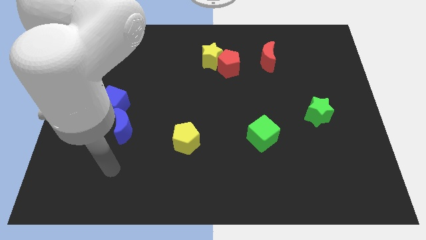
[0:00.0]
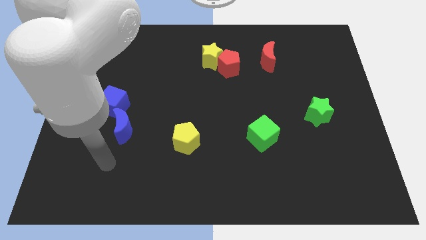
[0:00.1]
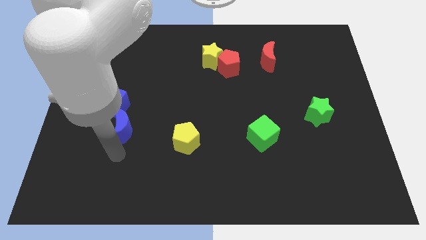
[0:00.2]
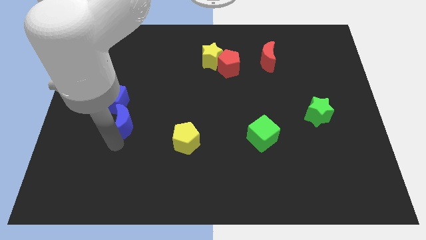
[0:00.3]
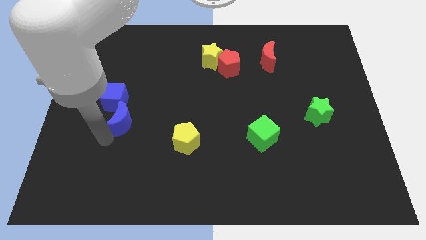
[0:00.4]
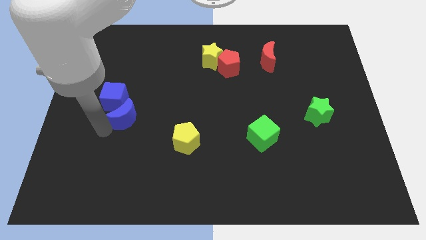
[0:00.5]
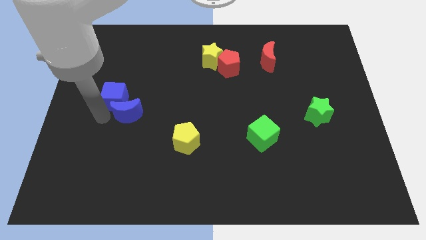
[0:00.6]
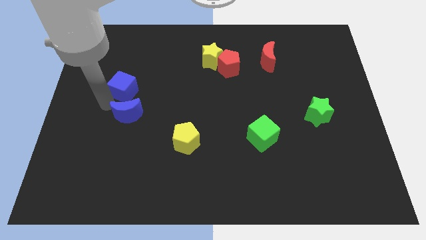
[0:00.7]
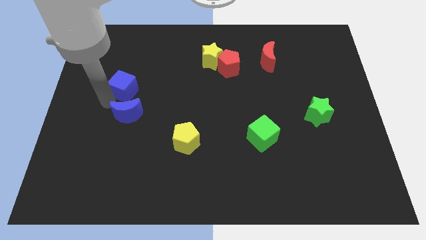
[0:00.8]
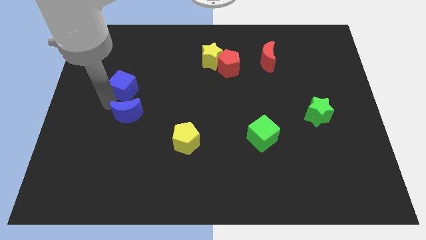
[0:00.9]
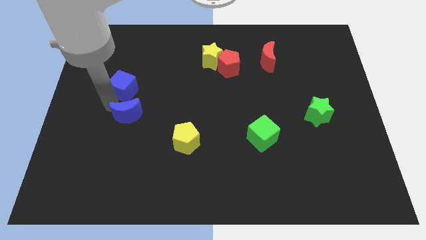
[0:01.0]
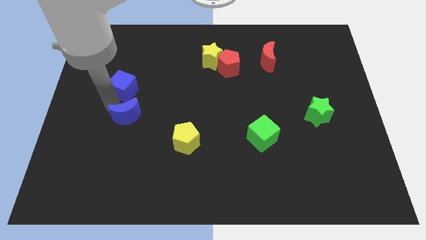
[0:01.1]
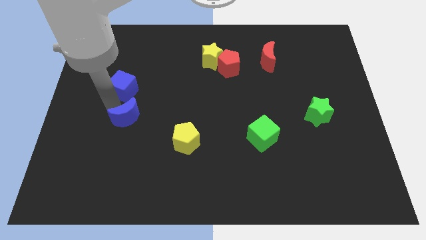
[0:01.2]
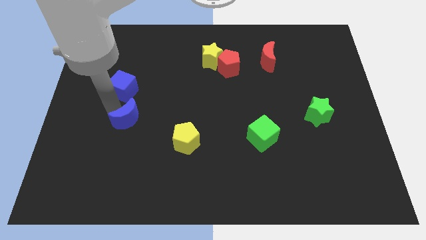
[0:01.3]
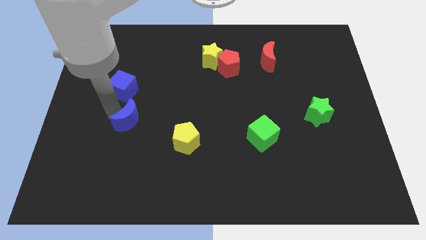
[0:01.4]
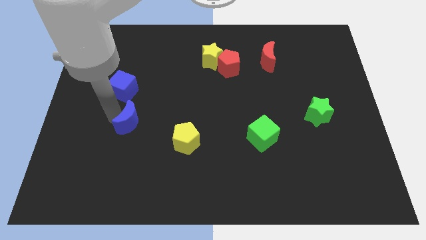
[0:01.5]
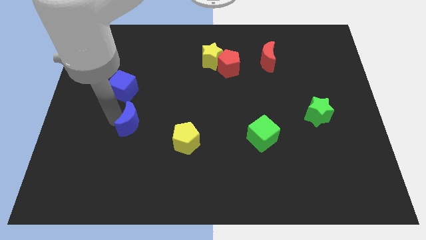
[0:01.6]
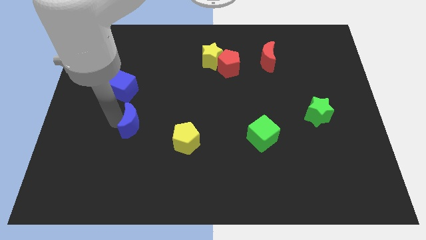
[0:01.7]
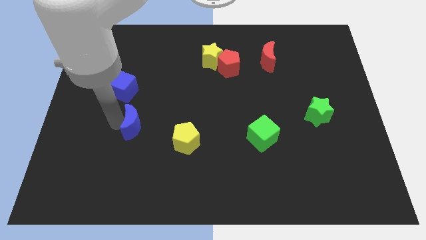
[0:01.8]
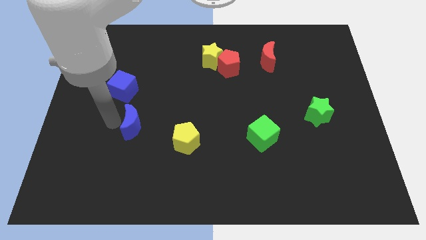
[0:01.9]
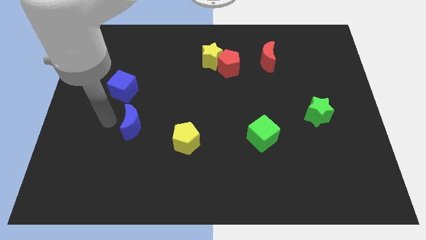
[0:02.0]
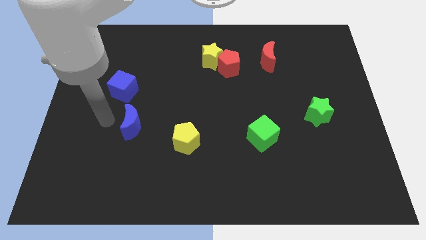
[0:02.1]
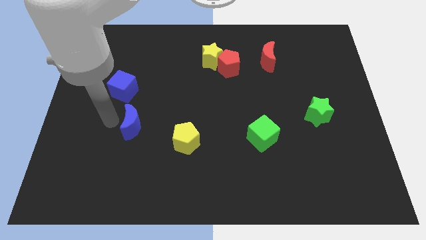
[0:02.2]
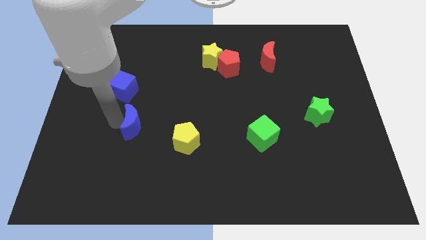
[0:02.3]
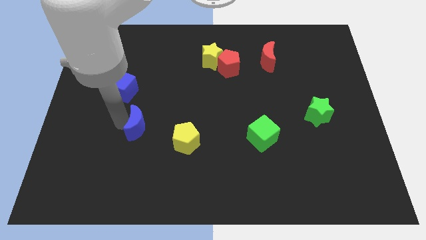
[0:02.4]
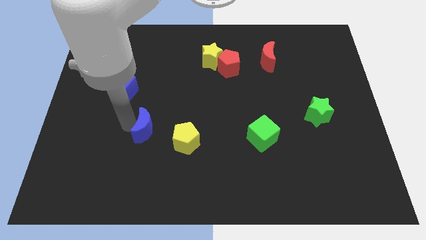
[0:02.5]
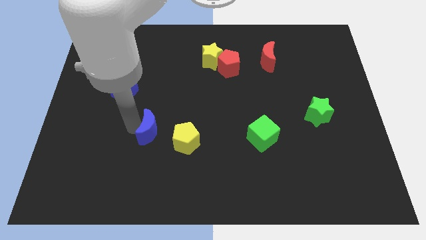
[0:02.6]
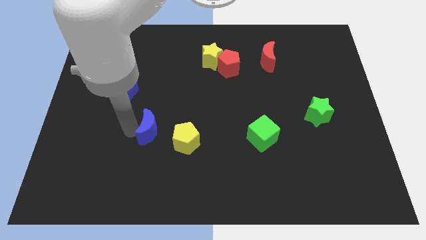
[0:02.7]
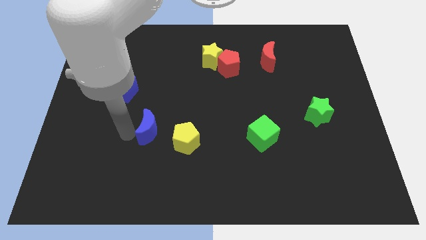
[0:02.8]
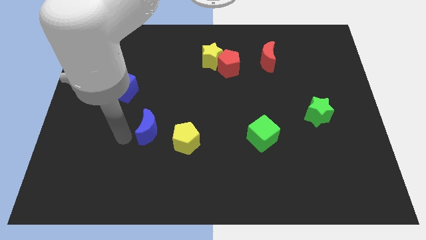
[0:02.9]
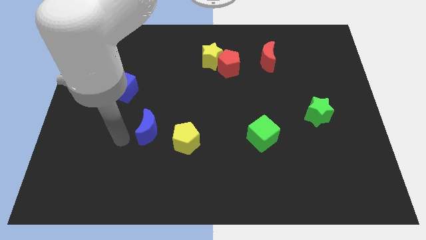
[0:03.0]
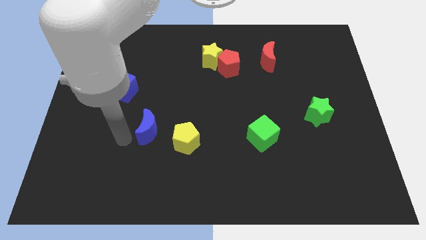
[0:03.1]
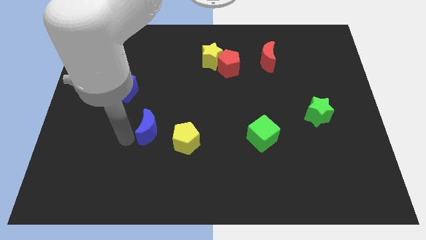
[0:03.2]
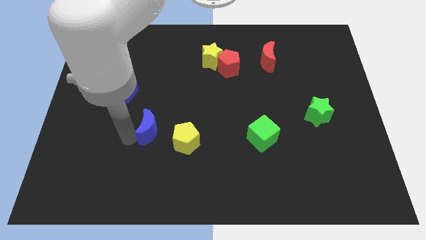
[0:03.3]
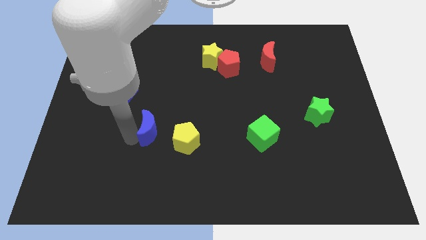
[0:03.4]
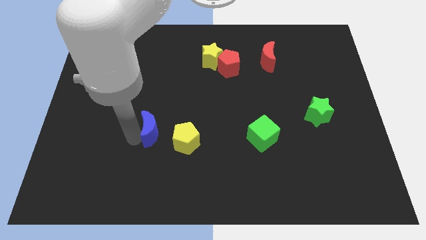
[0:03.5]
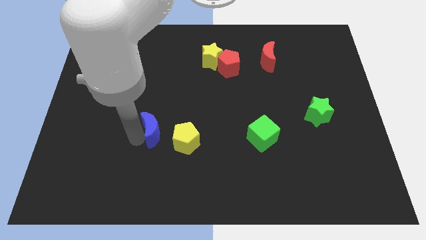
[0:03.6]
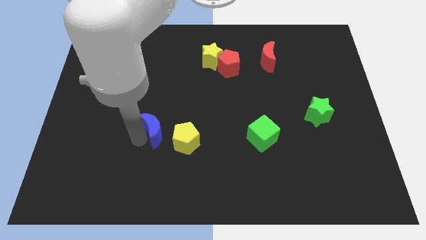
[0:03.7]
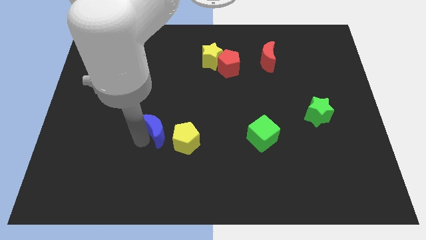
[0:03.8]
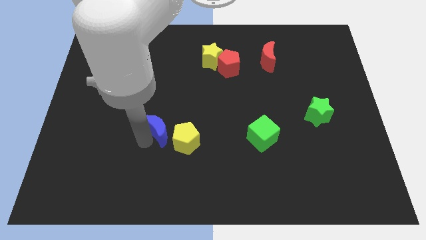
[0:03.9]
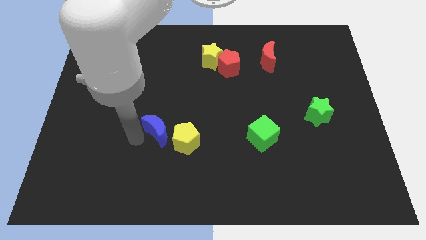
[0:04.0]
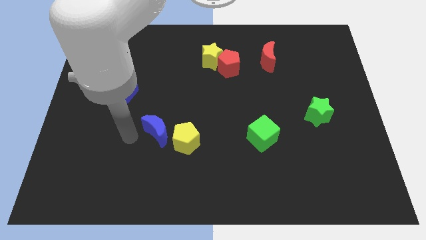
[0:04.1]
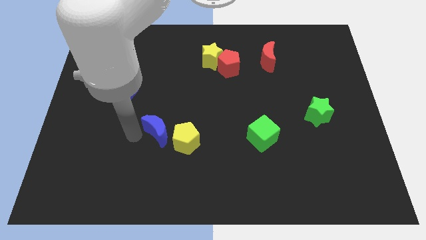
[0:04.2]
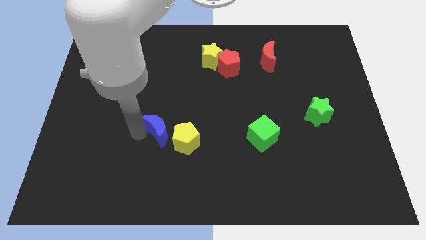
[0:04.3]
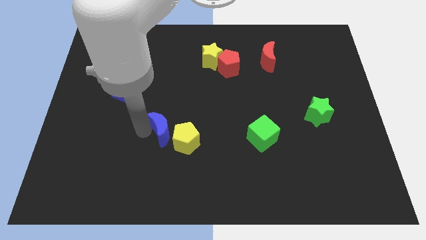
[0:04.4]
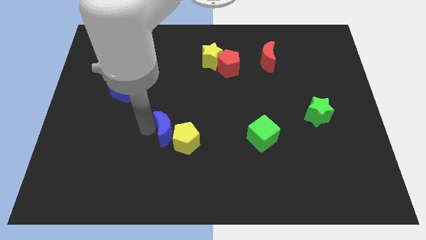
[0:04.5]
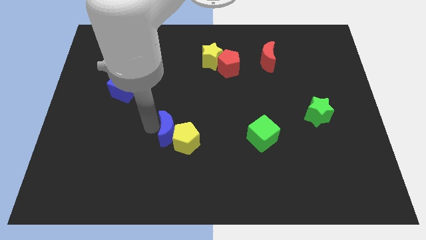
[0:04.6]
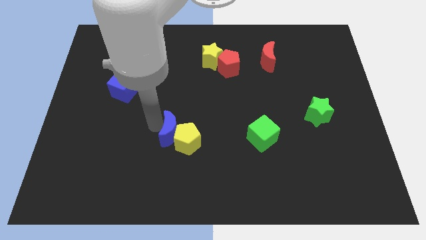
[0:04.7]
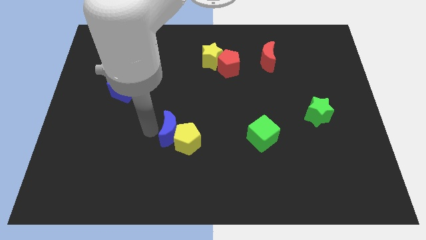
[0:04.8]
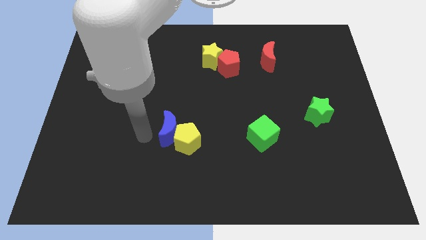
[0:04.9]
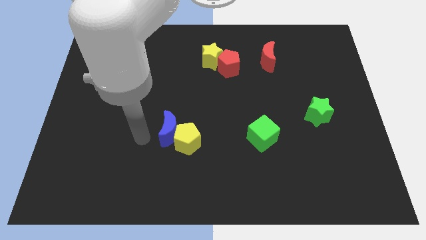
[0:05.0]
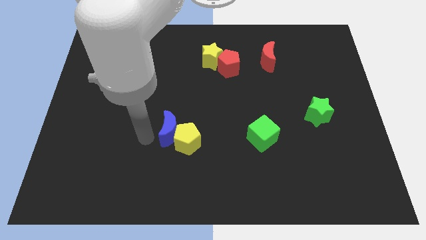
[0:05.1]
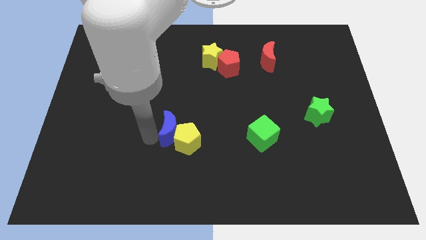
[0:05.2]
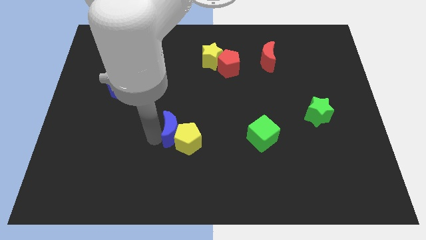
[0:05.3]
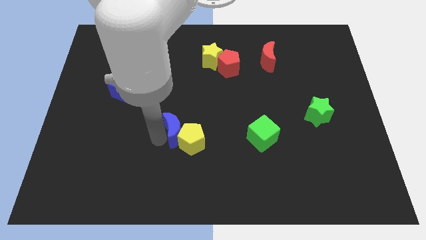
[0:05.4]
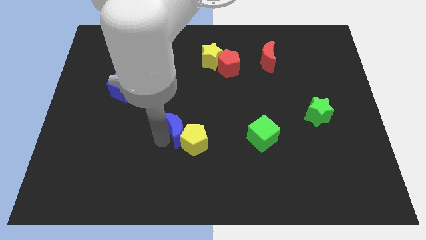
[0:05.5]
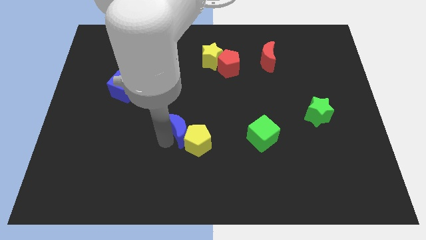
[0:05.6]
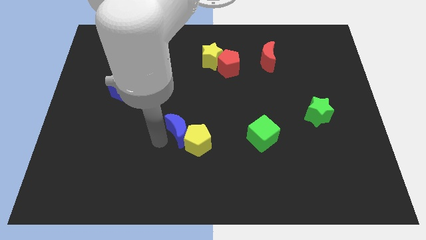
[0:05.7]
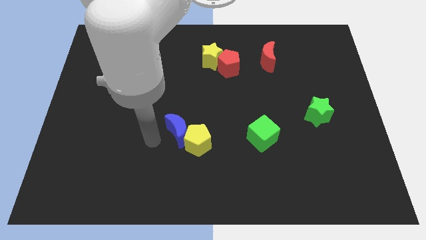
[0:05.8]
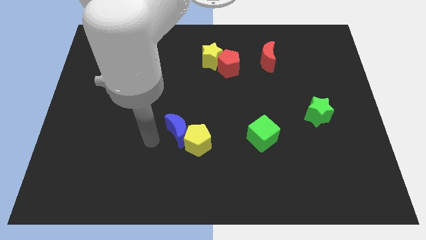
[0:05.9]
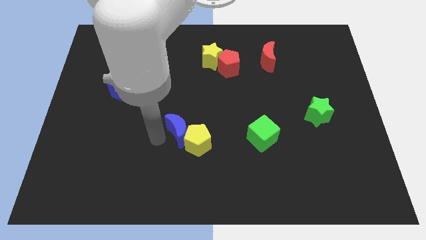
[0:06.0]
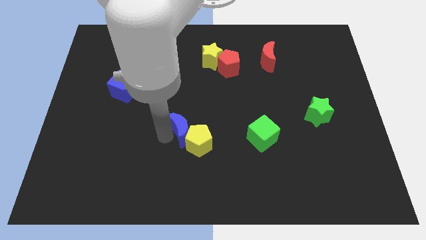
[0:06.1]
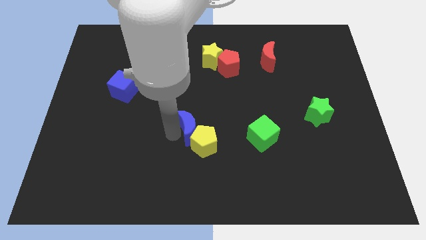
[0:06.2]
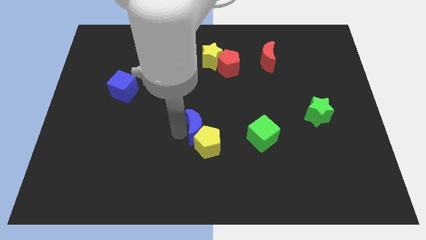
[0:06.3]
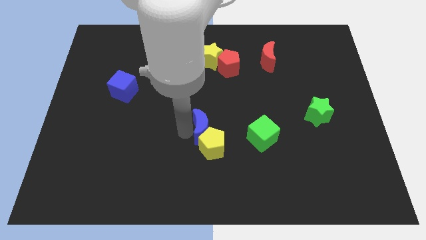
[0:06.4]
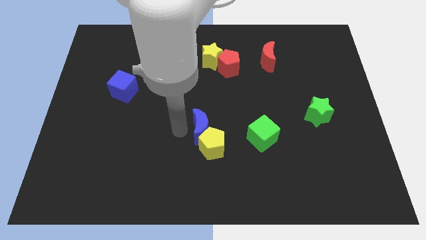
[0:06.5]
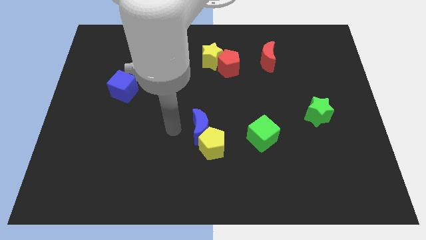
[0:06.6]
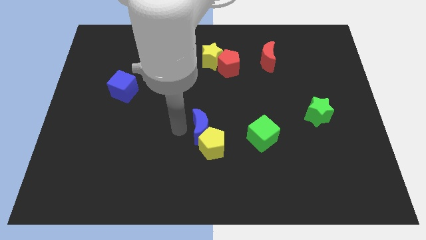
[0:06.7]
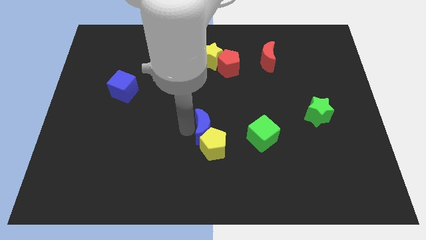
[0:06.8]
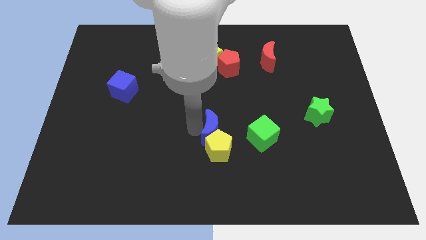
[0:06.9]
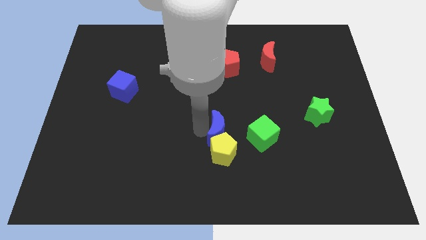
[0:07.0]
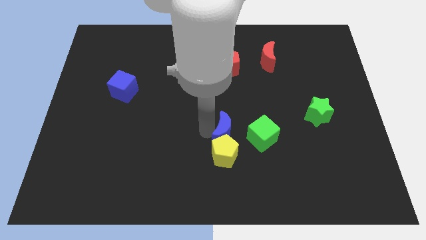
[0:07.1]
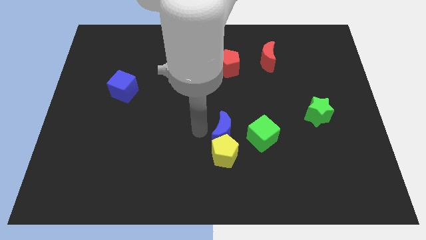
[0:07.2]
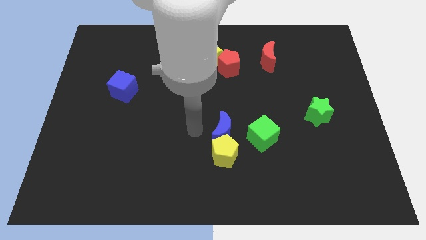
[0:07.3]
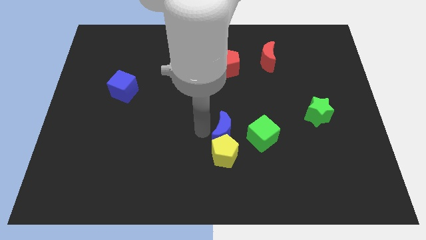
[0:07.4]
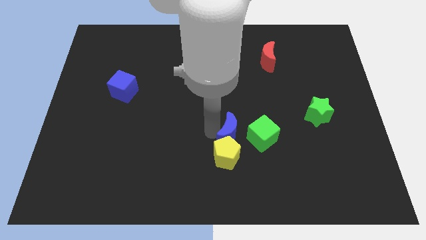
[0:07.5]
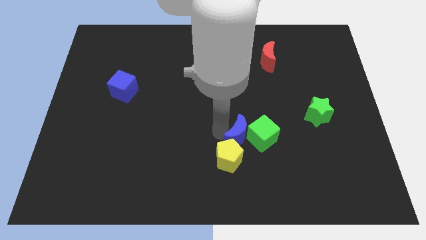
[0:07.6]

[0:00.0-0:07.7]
put the blue moon close to the green cube
